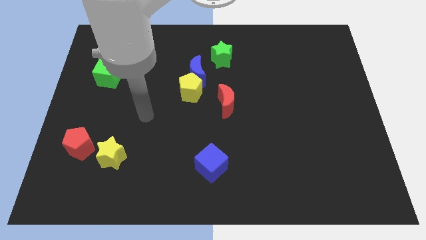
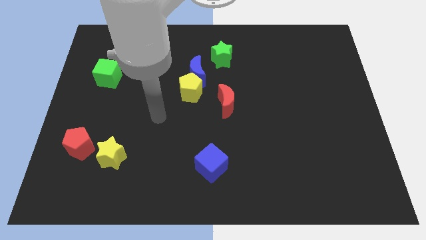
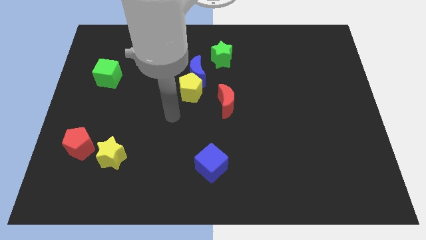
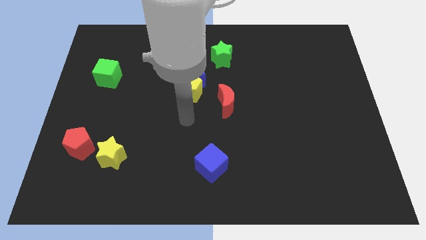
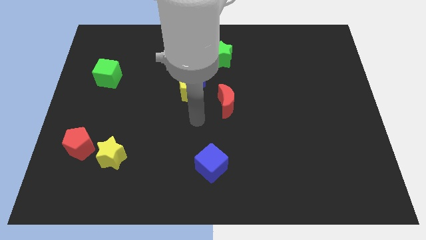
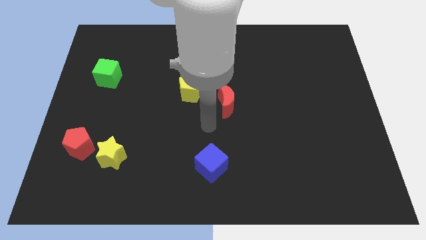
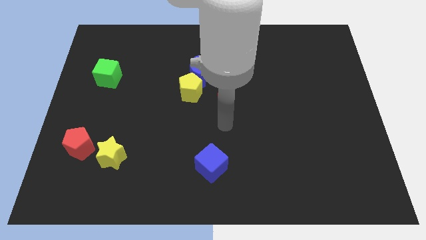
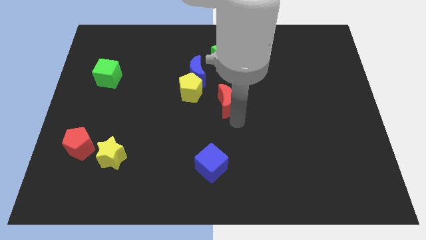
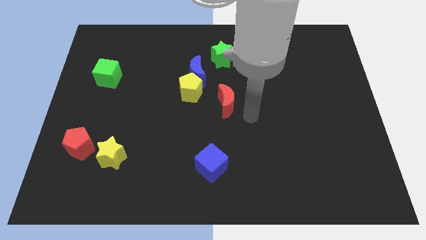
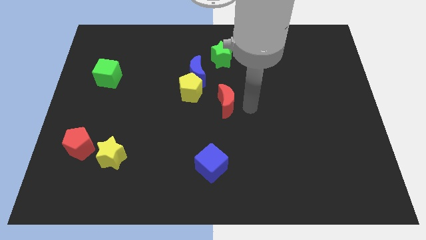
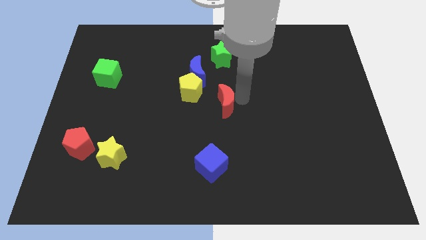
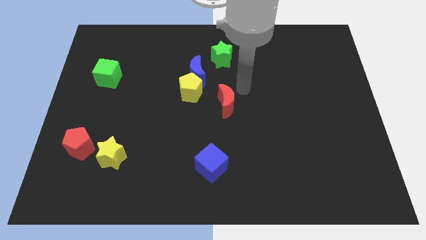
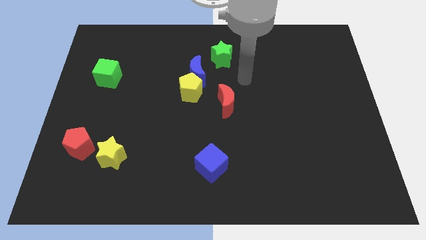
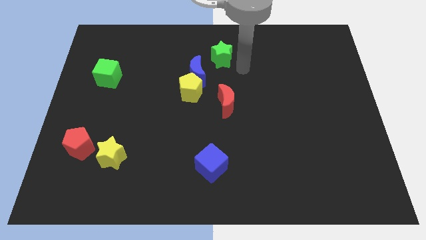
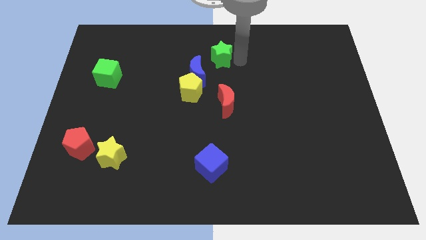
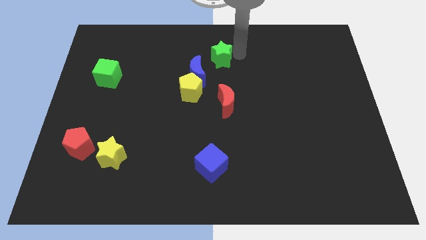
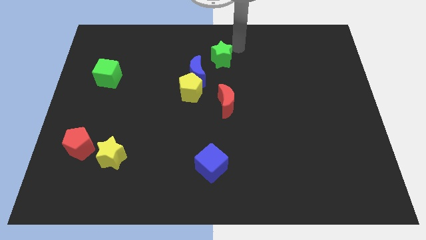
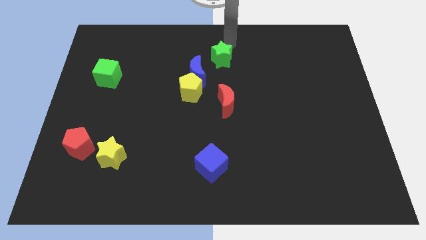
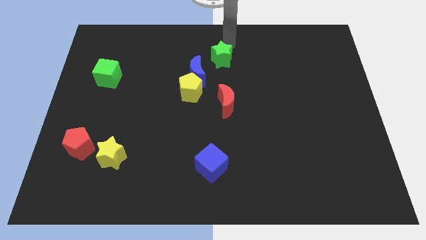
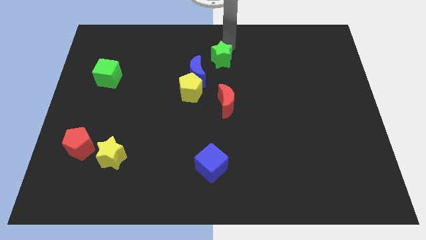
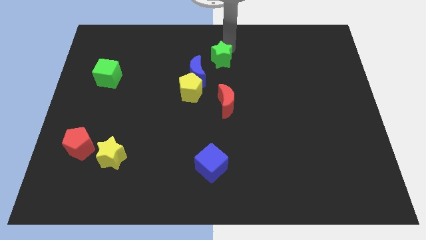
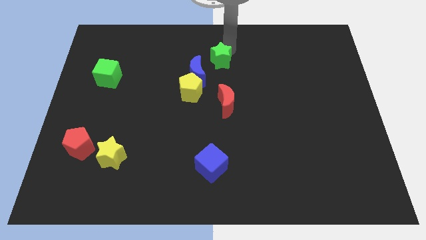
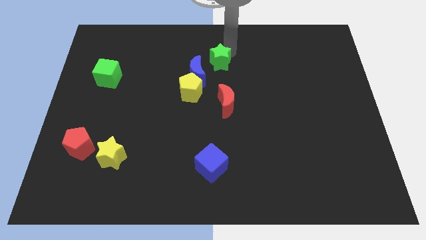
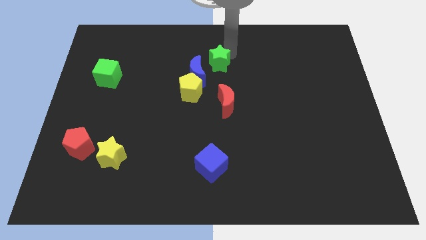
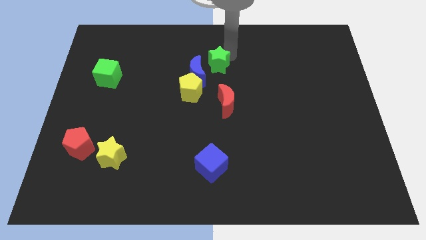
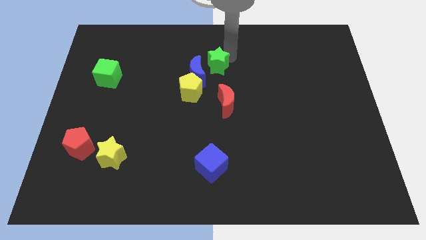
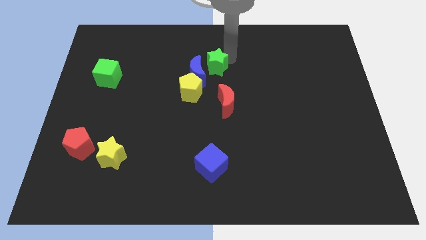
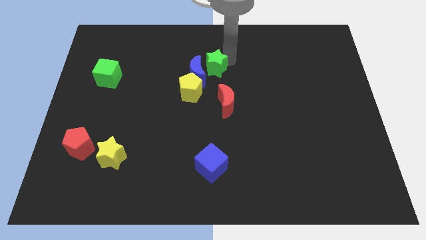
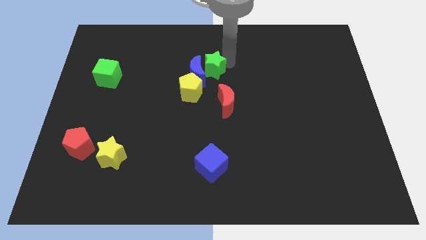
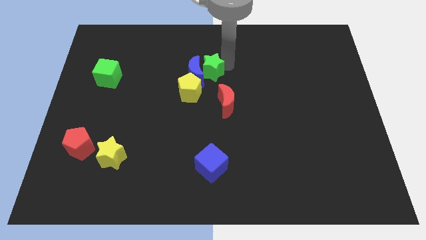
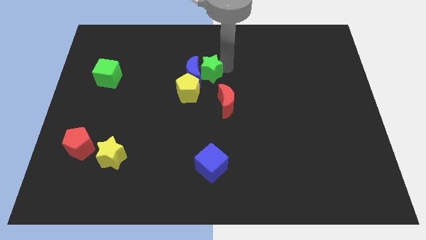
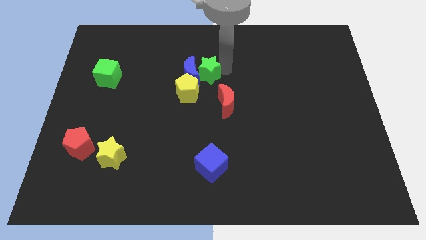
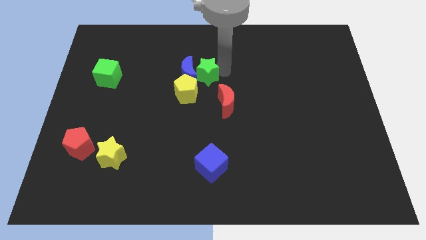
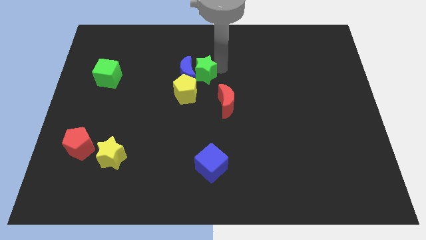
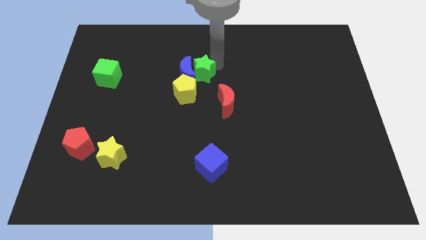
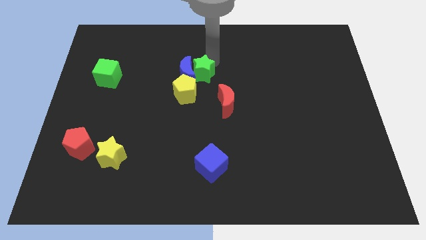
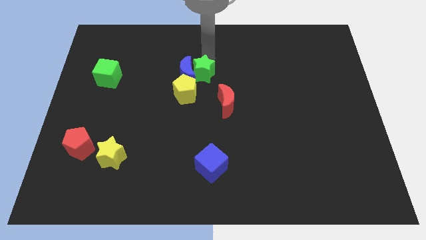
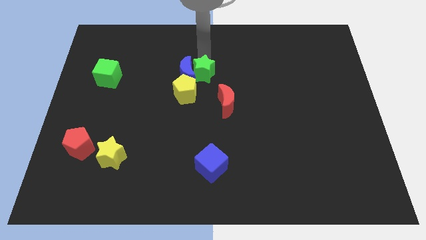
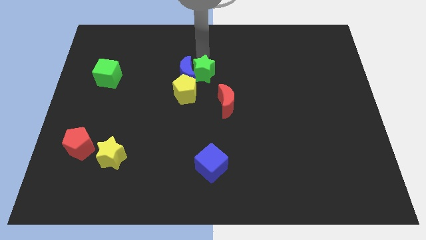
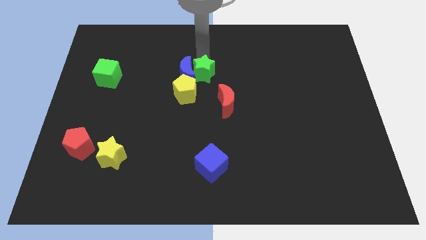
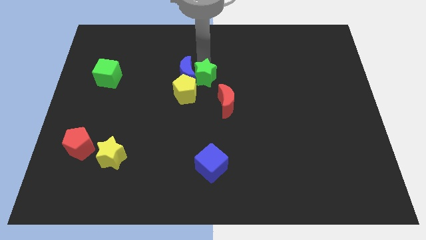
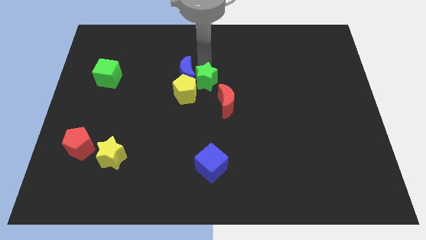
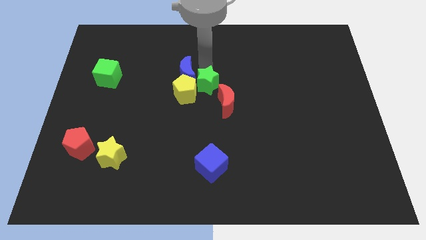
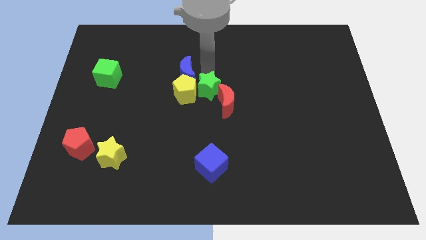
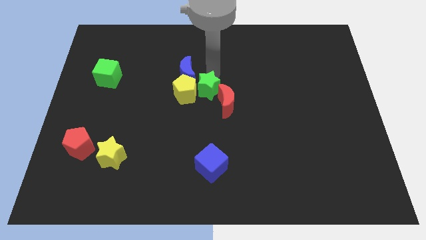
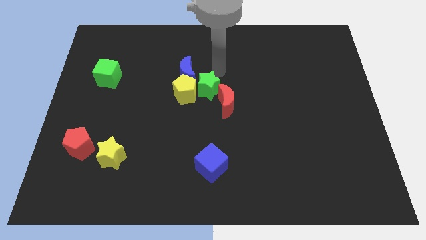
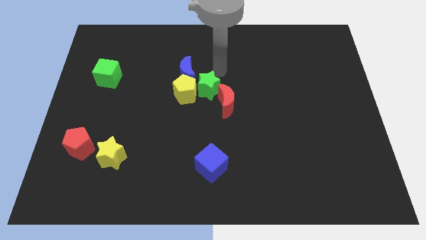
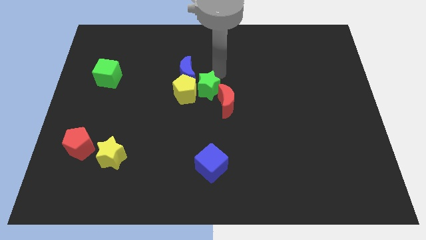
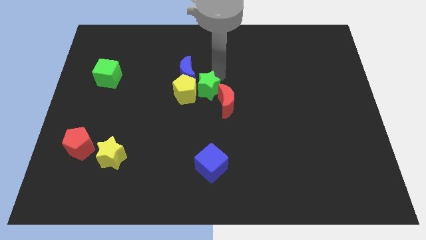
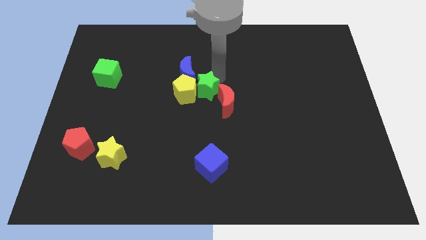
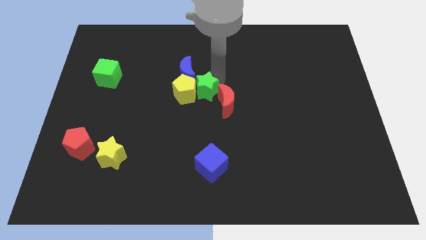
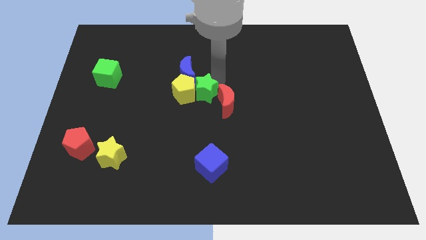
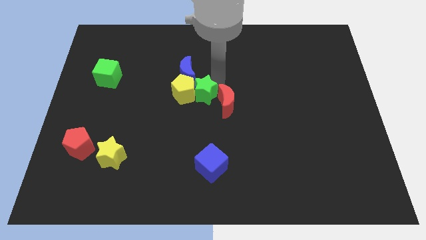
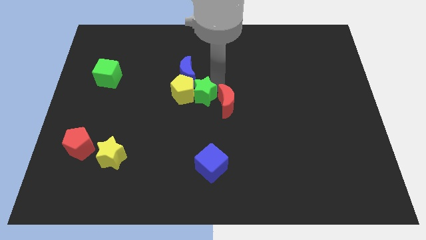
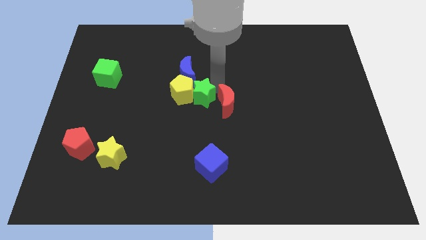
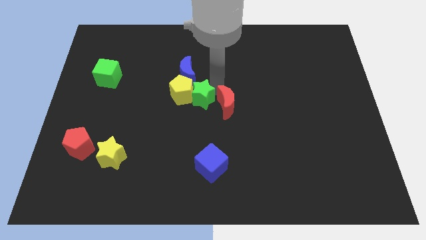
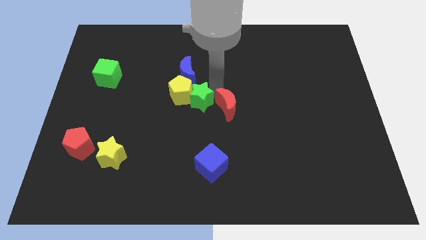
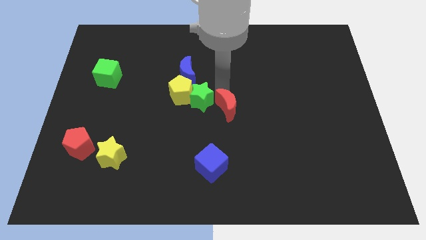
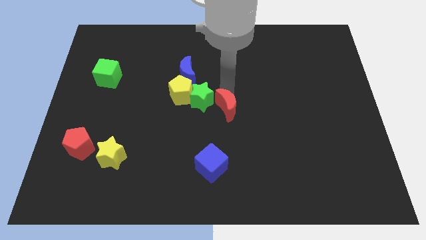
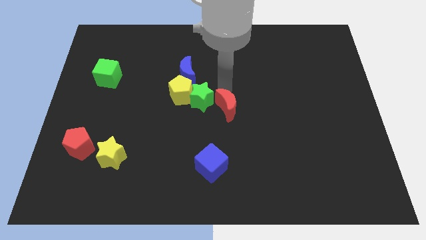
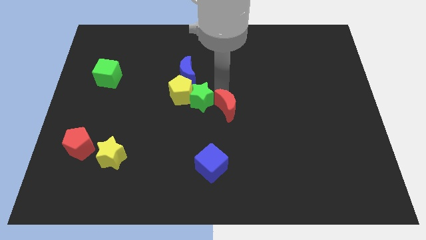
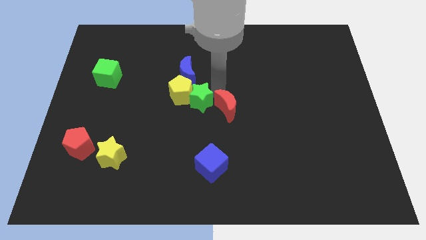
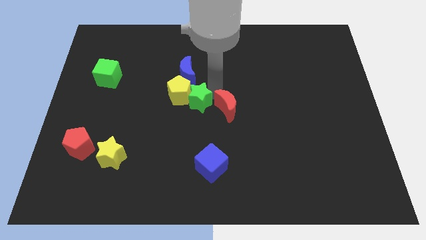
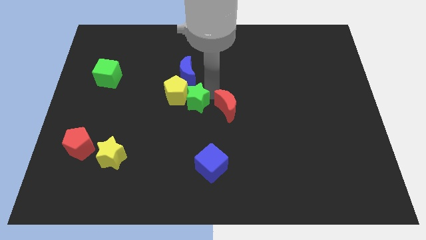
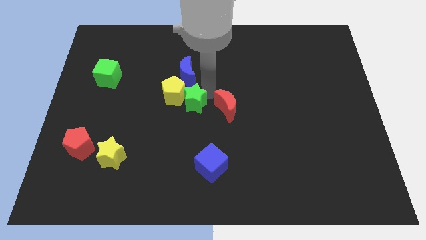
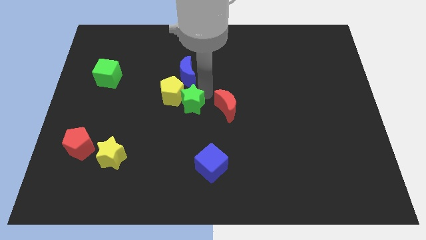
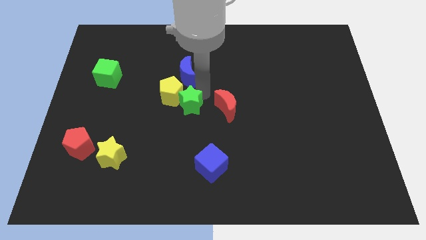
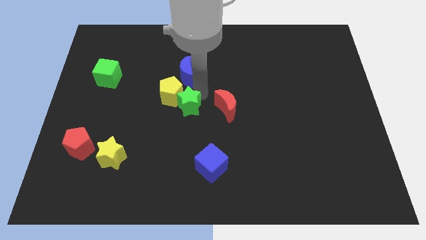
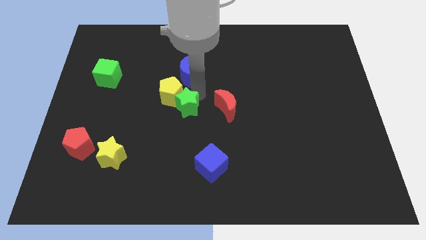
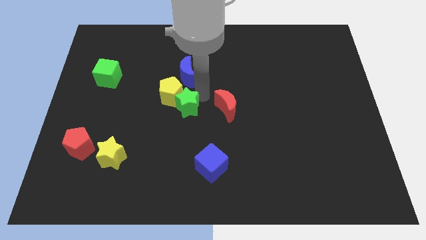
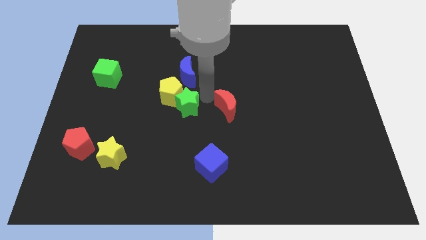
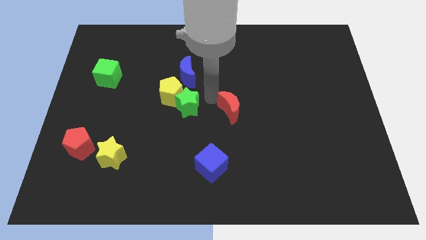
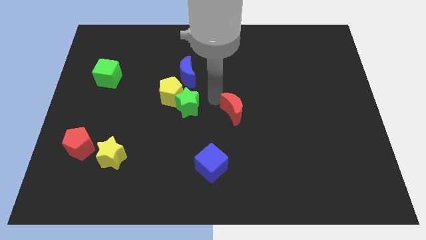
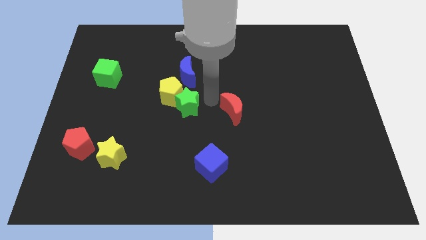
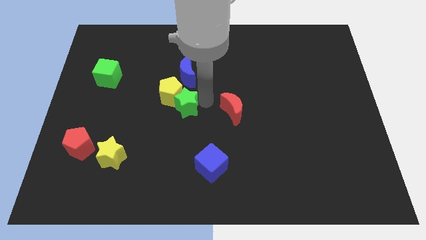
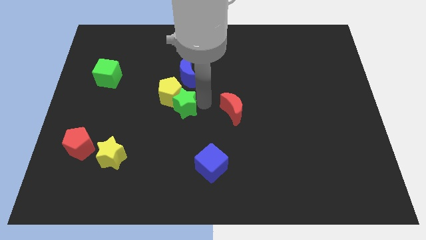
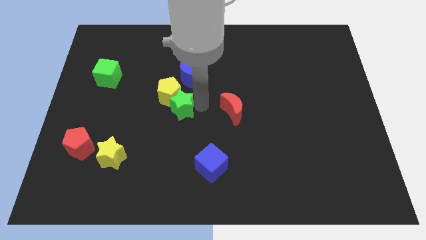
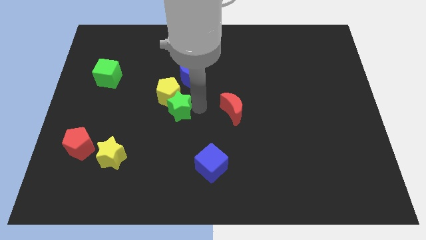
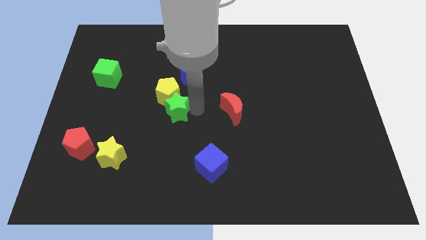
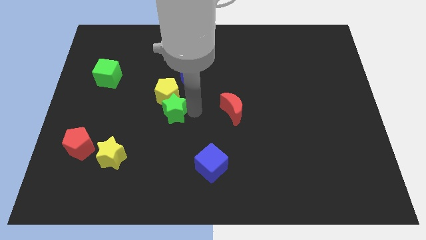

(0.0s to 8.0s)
slide the green star downwards and to the left
